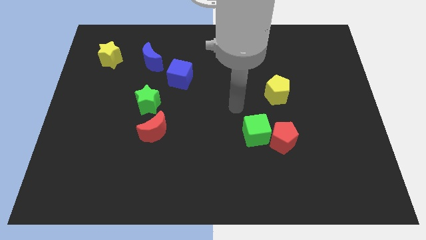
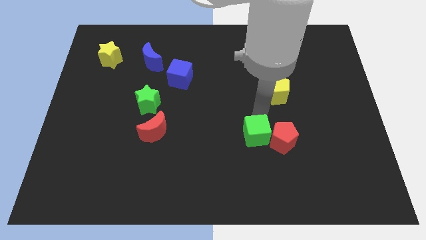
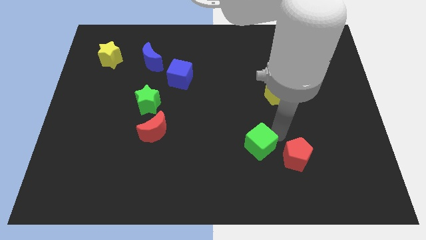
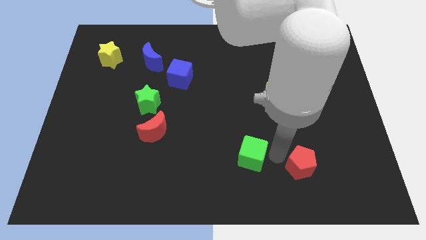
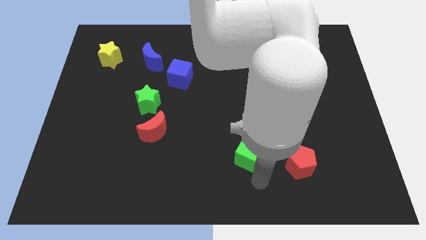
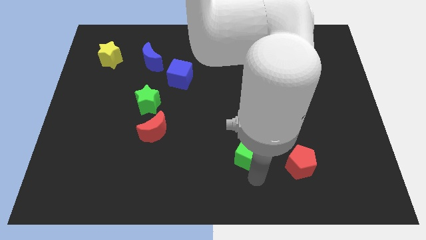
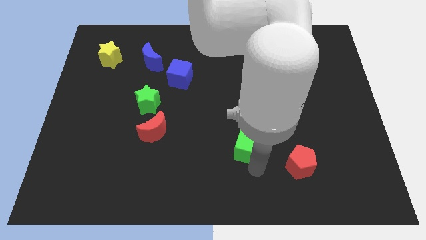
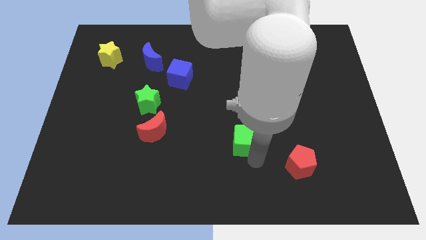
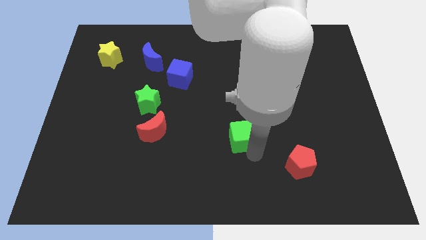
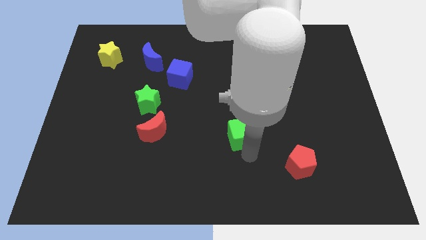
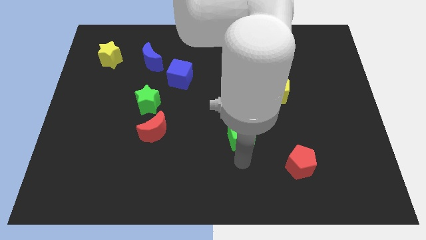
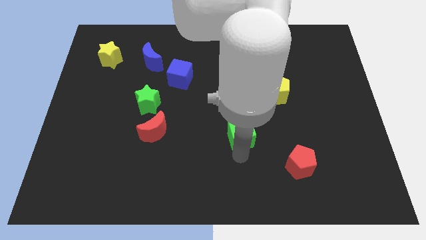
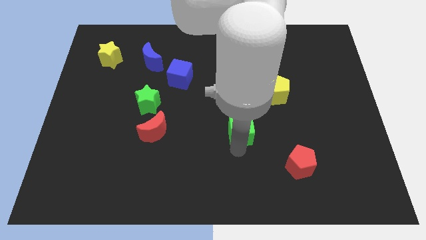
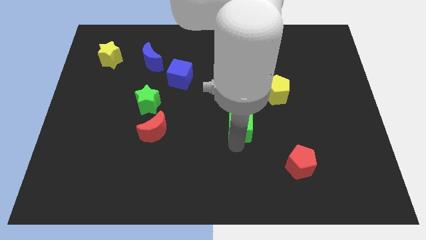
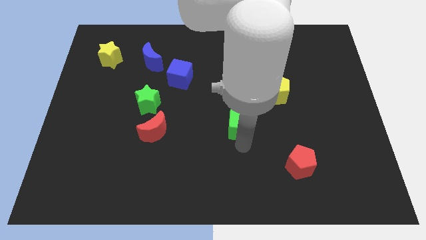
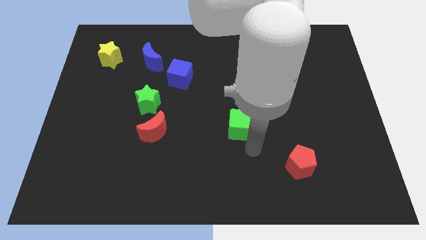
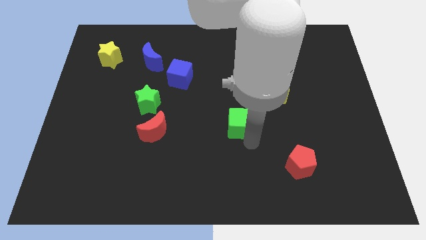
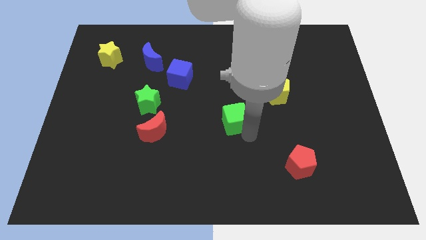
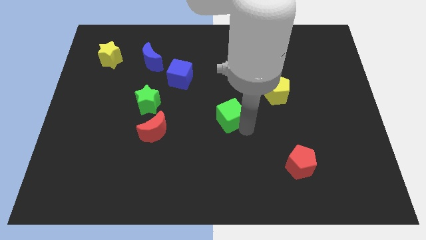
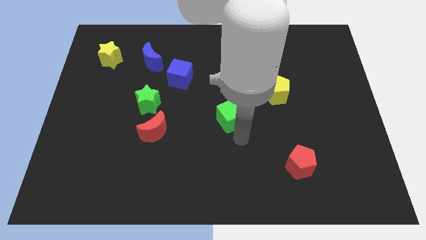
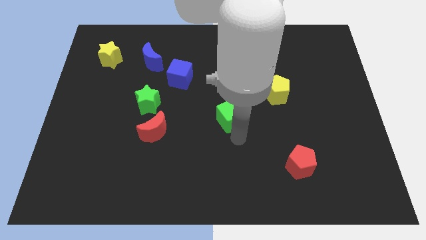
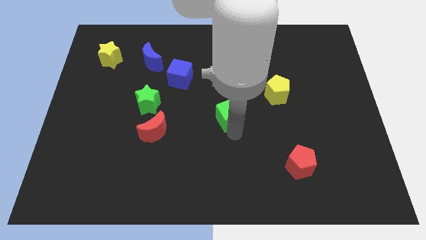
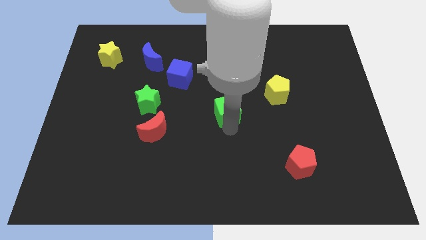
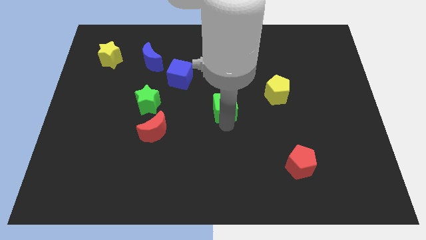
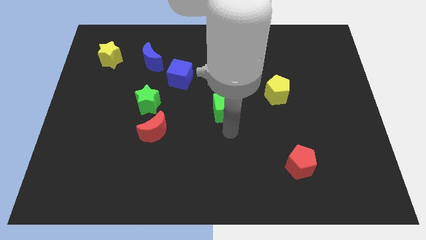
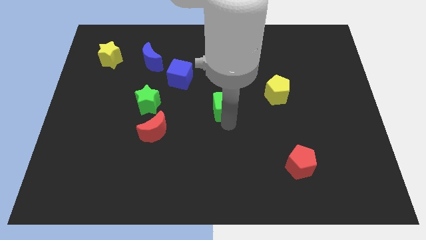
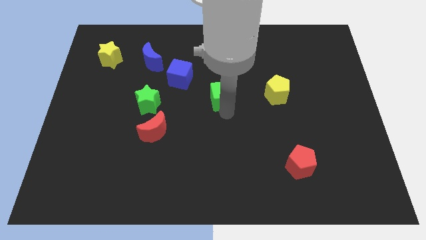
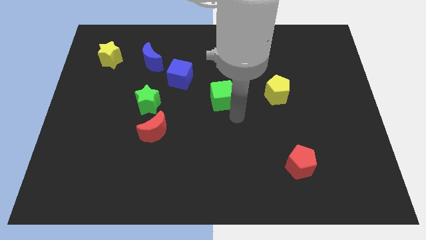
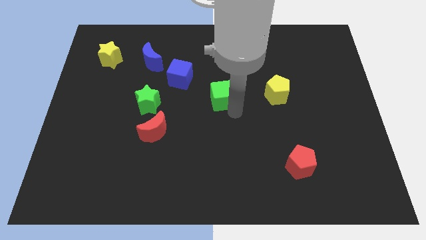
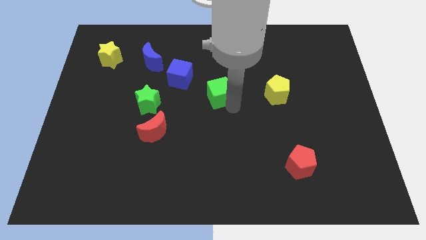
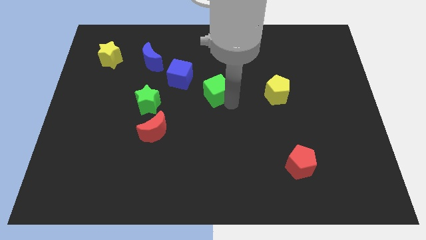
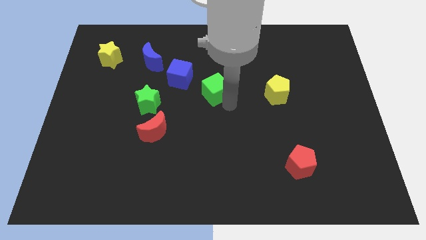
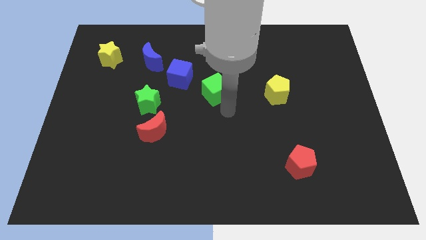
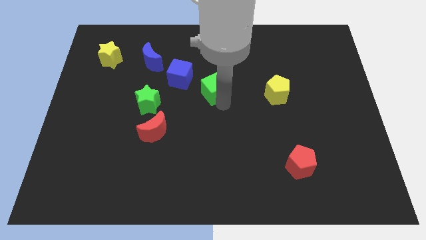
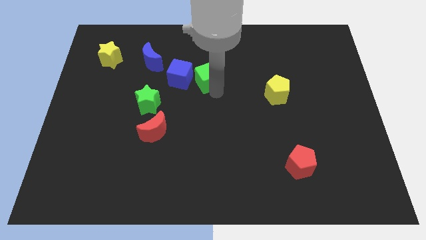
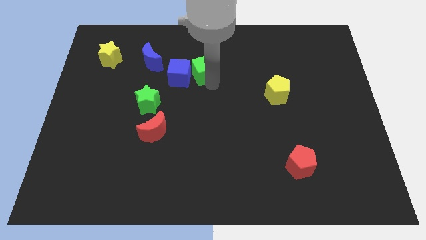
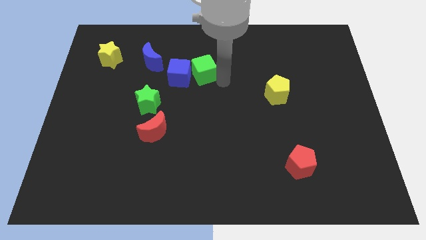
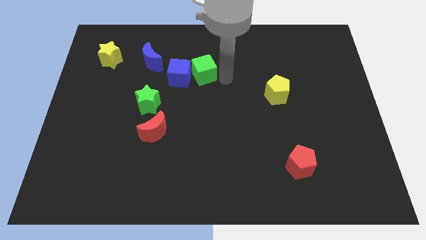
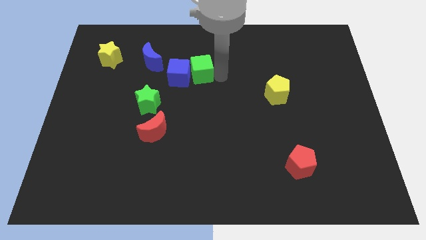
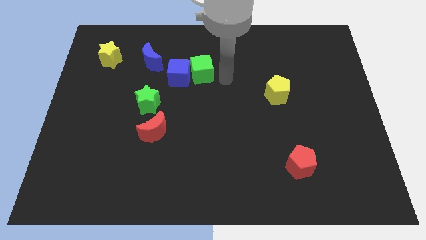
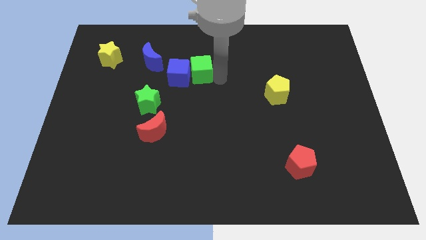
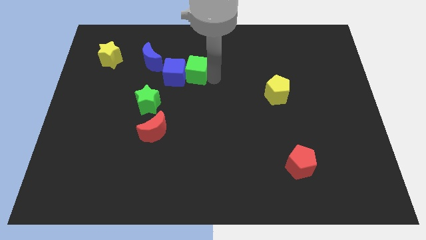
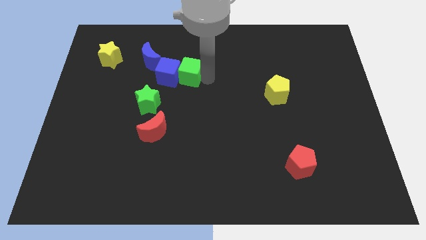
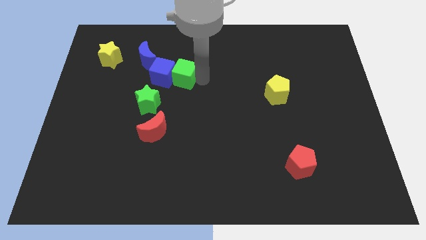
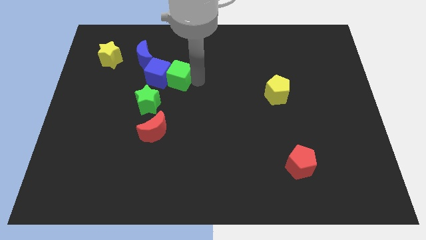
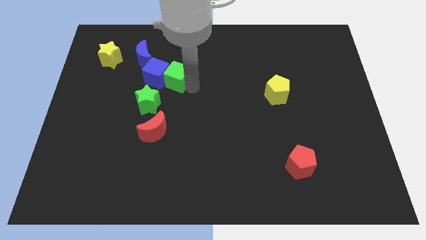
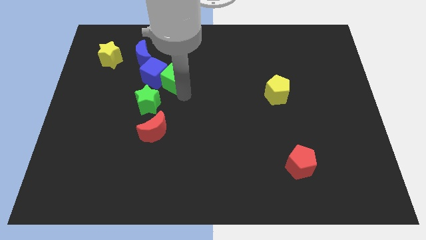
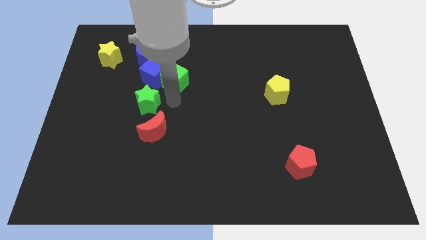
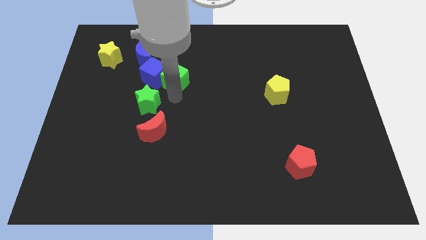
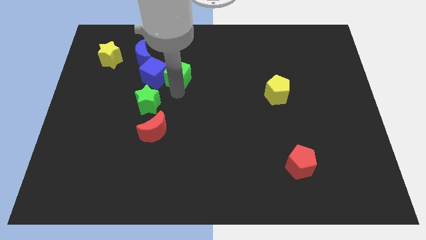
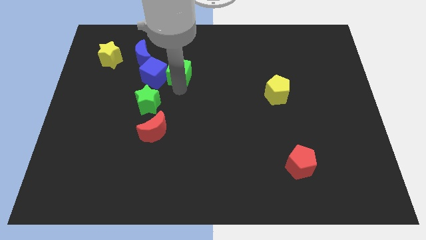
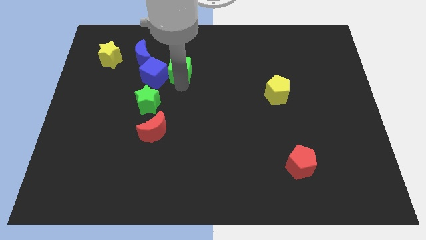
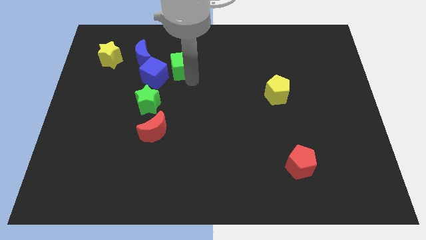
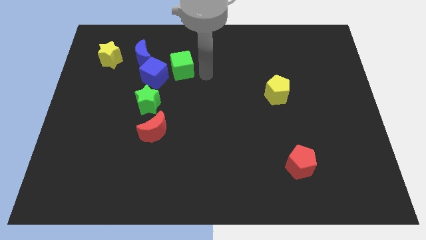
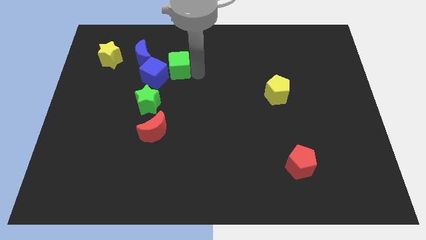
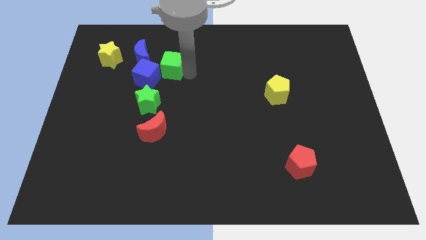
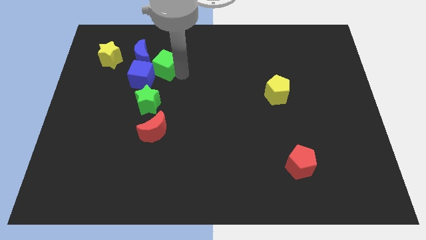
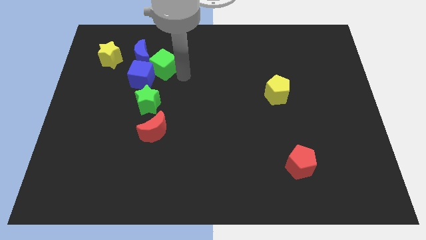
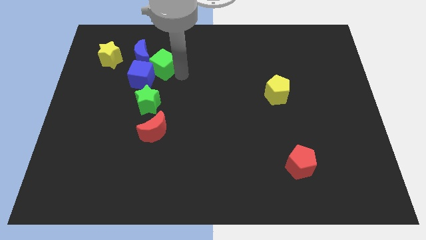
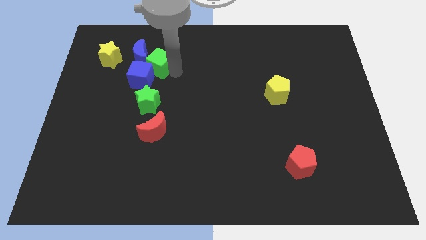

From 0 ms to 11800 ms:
move the green cube close to the blue moon
